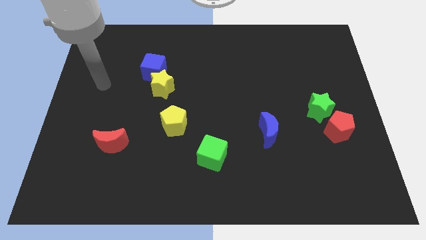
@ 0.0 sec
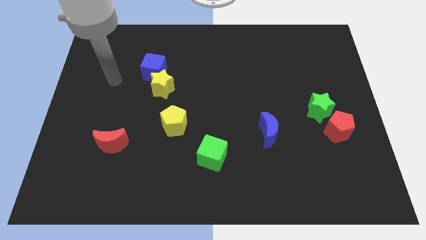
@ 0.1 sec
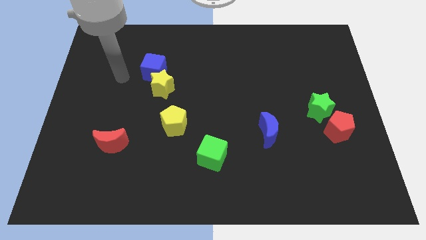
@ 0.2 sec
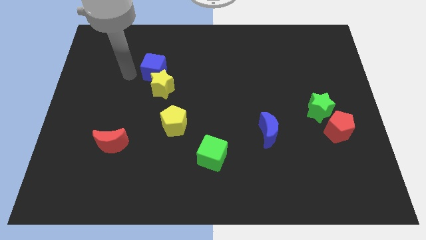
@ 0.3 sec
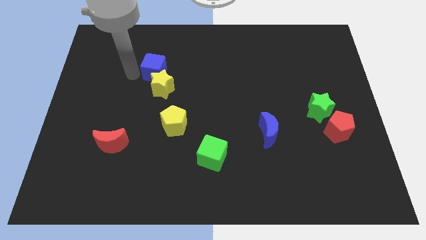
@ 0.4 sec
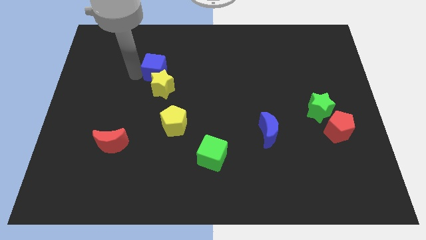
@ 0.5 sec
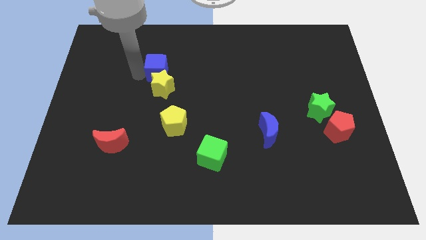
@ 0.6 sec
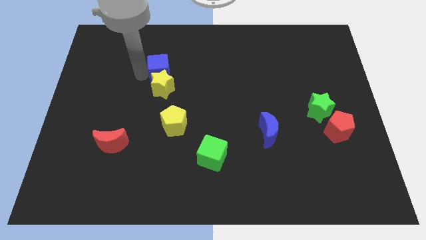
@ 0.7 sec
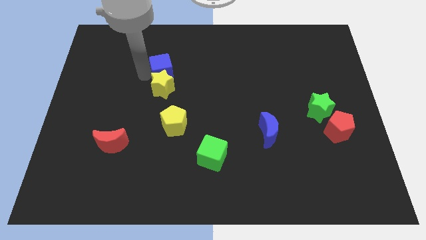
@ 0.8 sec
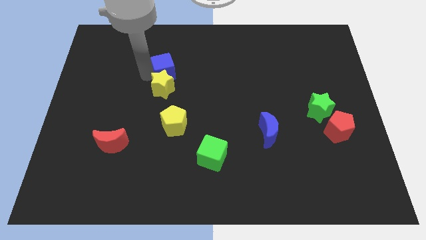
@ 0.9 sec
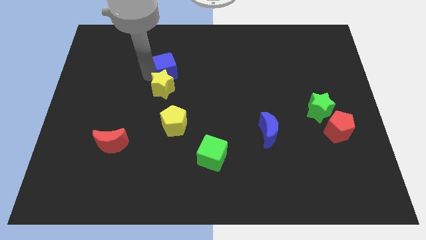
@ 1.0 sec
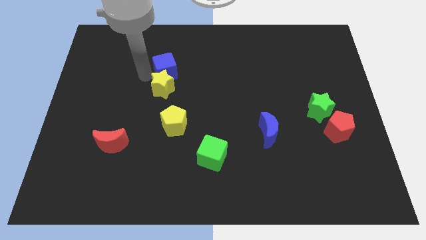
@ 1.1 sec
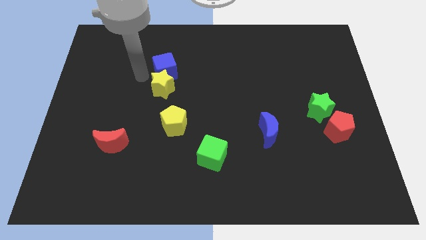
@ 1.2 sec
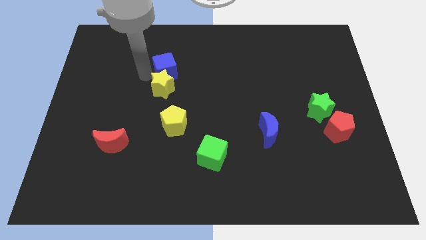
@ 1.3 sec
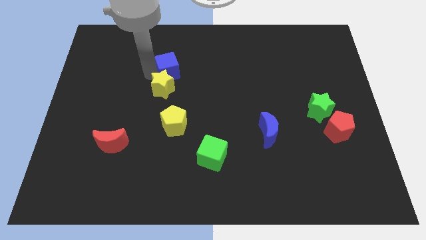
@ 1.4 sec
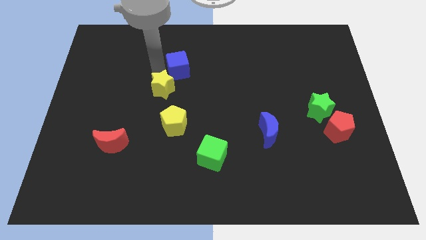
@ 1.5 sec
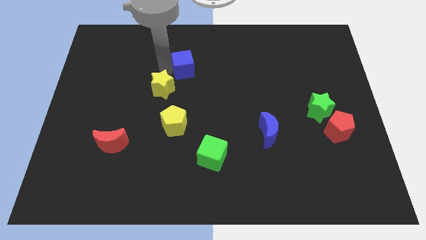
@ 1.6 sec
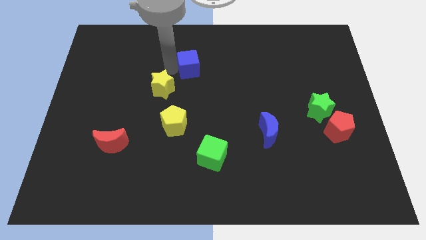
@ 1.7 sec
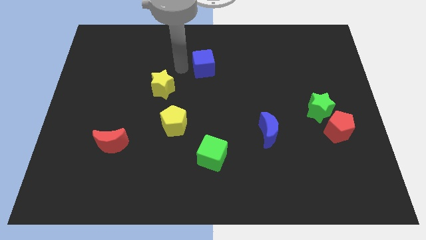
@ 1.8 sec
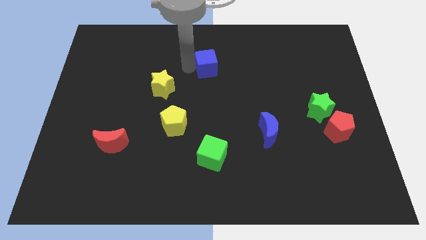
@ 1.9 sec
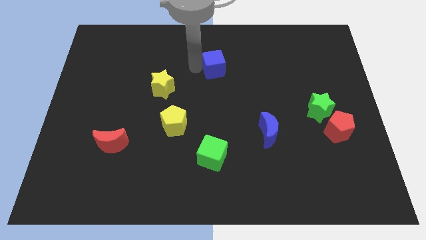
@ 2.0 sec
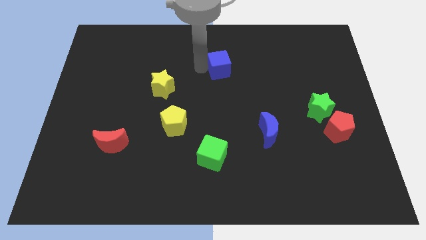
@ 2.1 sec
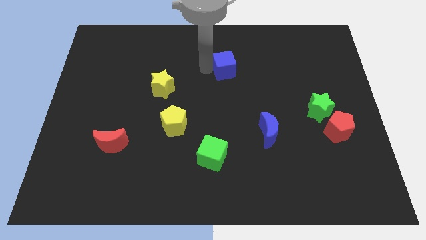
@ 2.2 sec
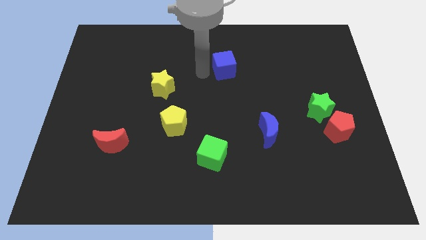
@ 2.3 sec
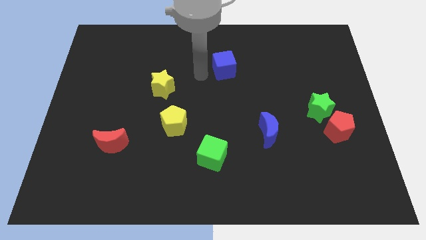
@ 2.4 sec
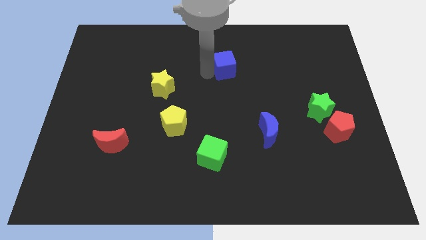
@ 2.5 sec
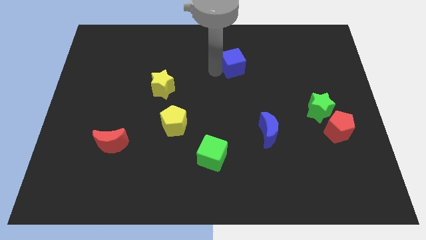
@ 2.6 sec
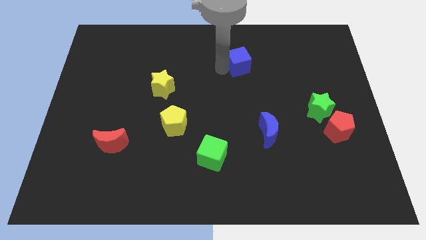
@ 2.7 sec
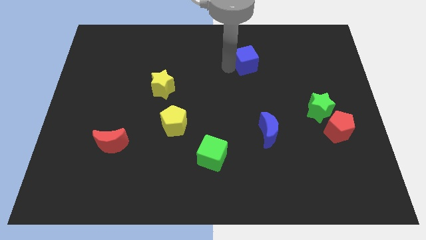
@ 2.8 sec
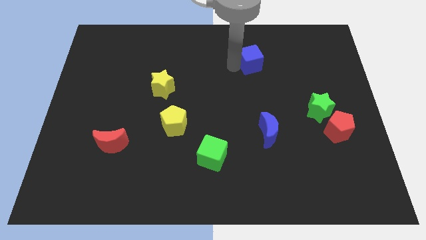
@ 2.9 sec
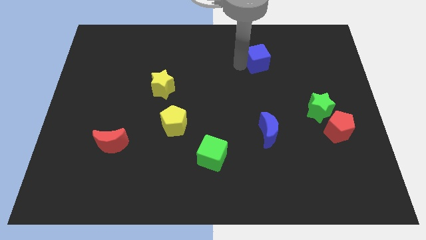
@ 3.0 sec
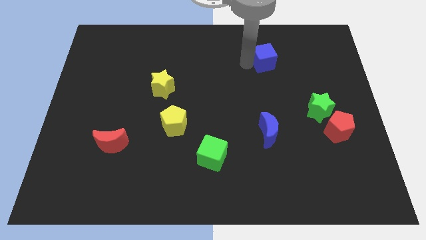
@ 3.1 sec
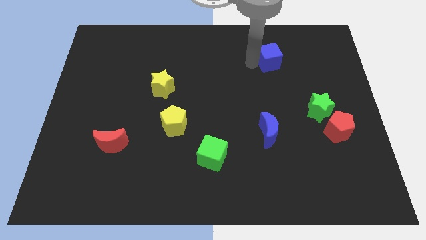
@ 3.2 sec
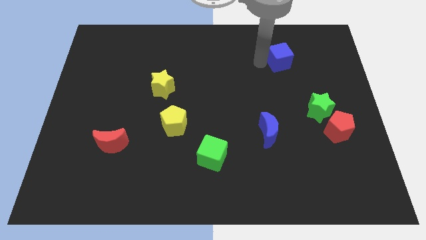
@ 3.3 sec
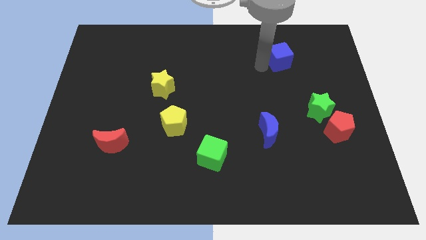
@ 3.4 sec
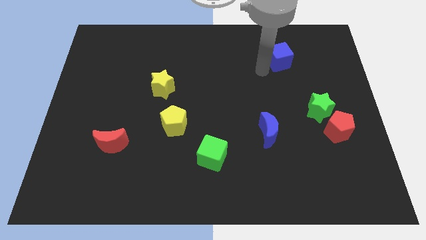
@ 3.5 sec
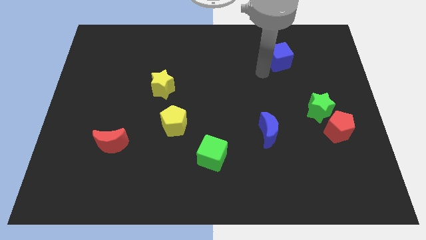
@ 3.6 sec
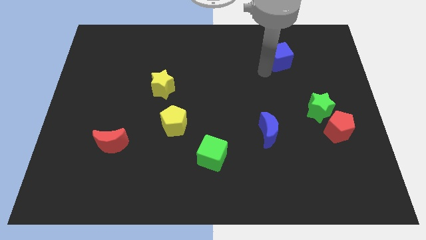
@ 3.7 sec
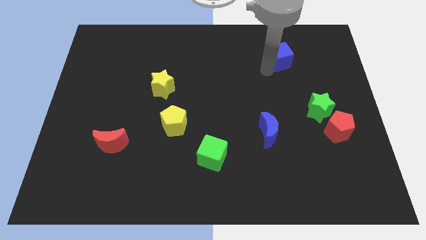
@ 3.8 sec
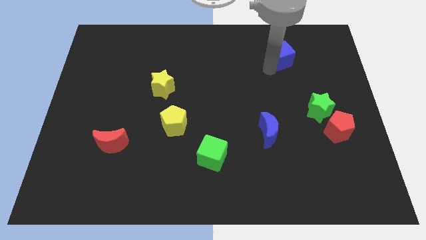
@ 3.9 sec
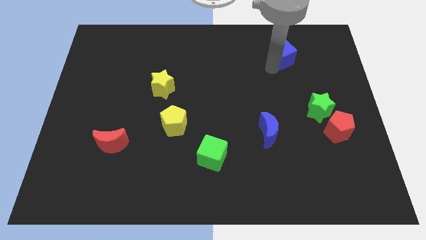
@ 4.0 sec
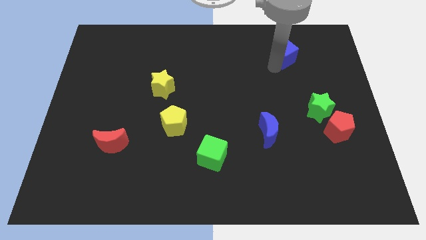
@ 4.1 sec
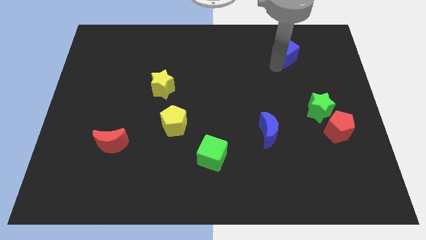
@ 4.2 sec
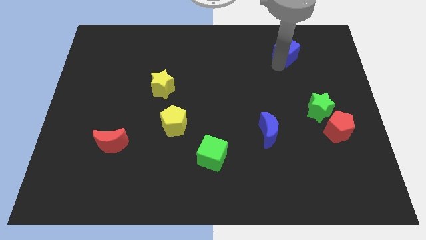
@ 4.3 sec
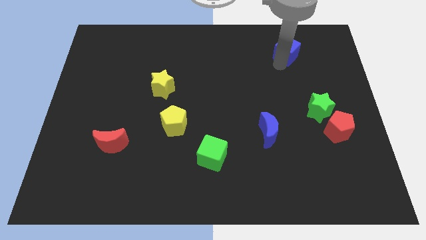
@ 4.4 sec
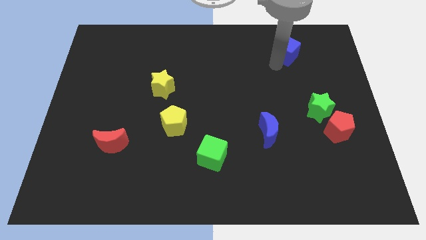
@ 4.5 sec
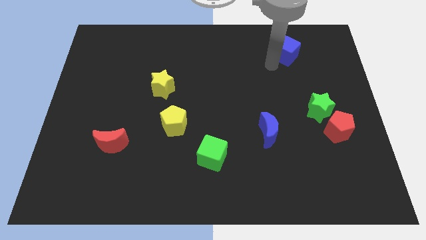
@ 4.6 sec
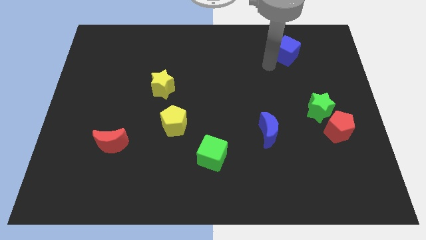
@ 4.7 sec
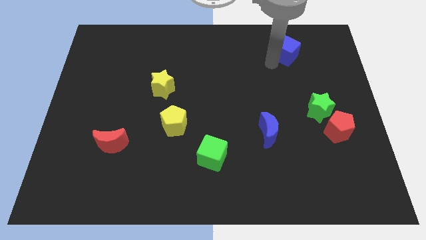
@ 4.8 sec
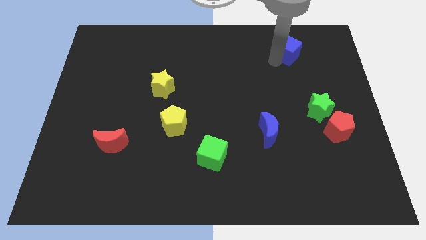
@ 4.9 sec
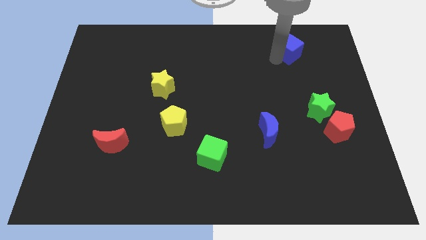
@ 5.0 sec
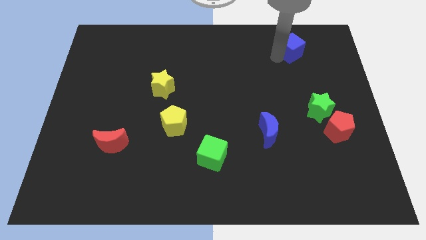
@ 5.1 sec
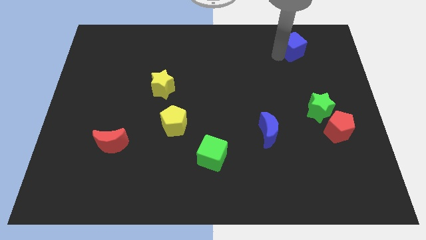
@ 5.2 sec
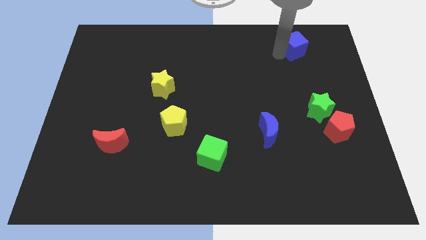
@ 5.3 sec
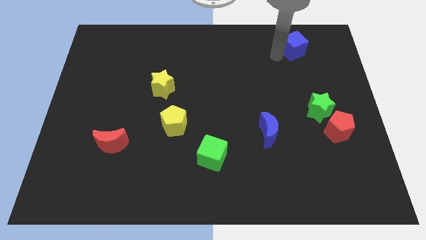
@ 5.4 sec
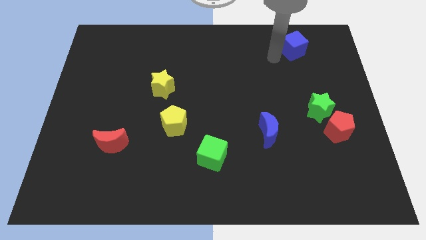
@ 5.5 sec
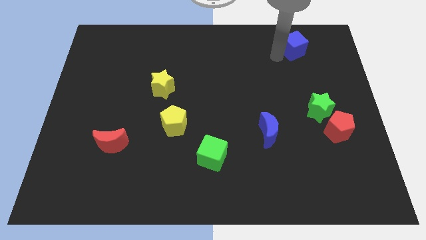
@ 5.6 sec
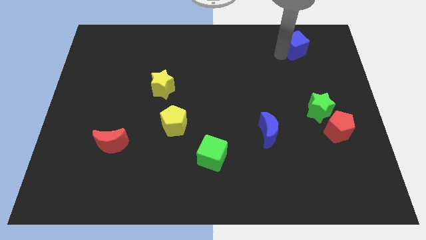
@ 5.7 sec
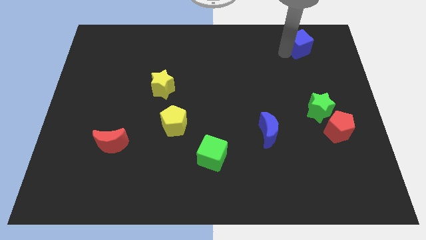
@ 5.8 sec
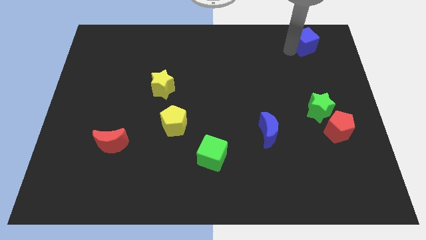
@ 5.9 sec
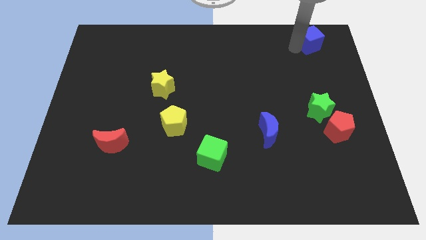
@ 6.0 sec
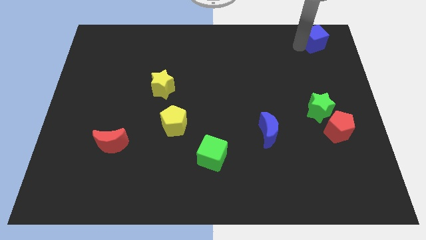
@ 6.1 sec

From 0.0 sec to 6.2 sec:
put the blue cube to the top right of the board

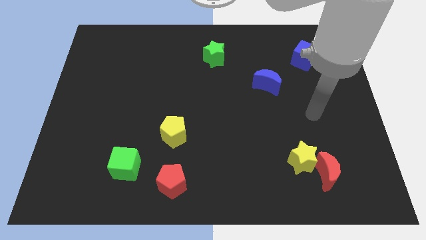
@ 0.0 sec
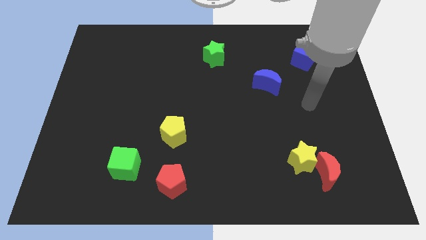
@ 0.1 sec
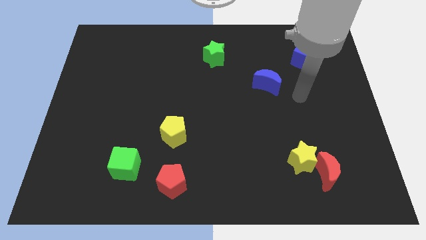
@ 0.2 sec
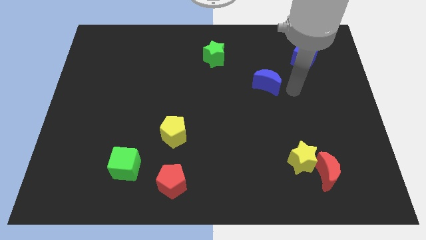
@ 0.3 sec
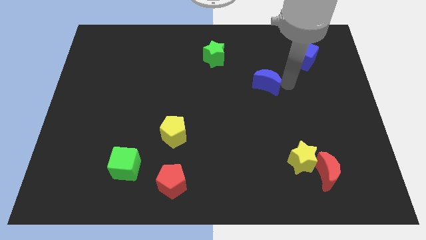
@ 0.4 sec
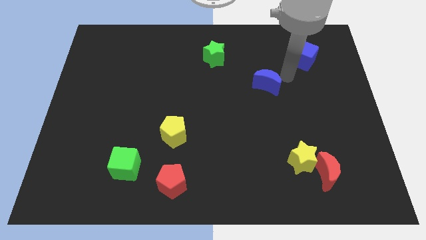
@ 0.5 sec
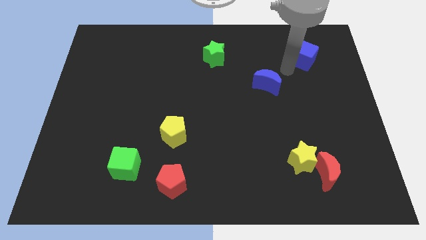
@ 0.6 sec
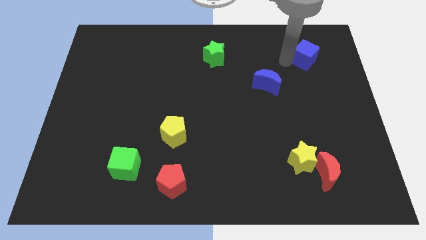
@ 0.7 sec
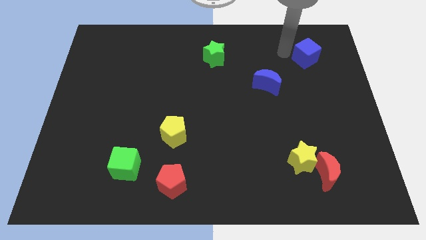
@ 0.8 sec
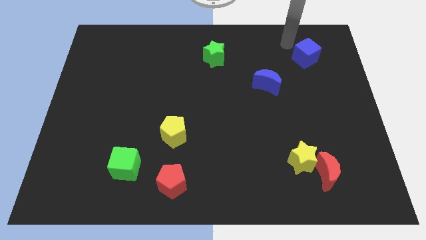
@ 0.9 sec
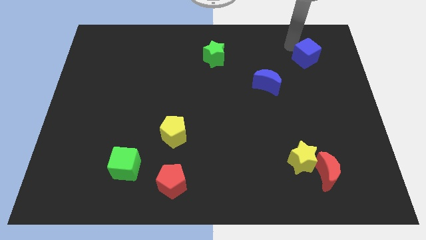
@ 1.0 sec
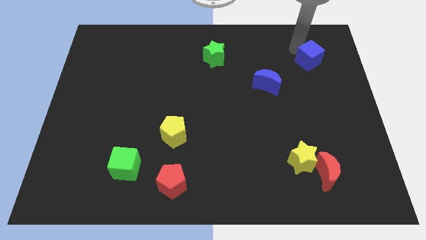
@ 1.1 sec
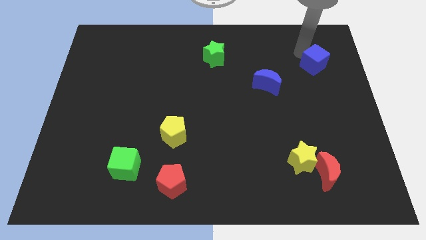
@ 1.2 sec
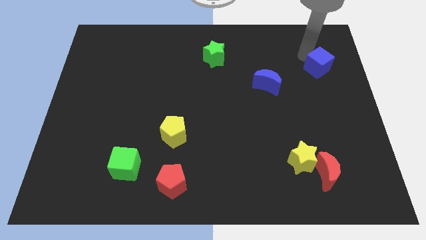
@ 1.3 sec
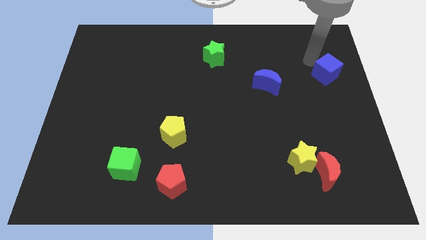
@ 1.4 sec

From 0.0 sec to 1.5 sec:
push the blue cube to the right side
